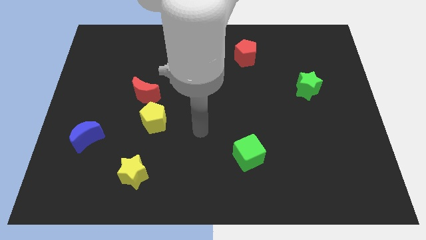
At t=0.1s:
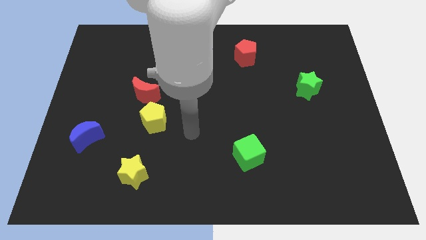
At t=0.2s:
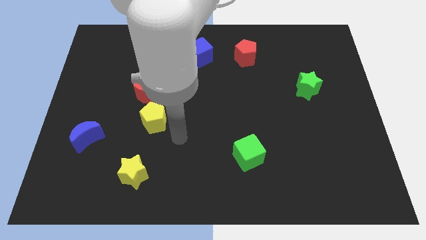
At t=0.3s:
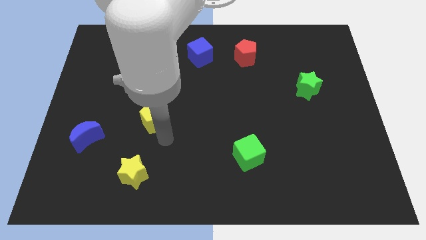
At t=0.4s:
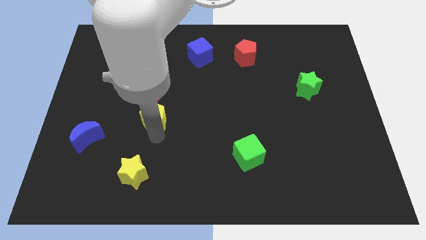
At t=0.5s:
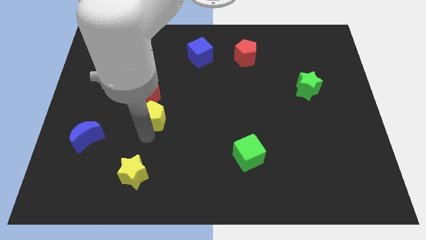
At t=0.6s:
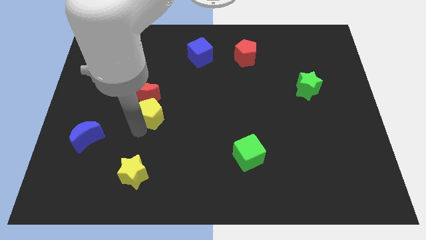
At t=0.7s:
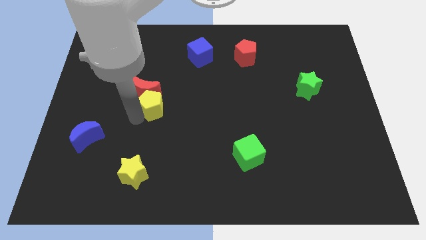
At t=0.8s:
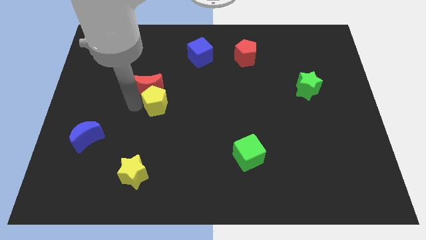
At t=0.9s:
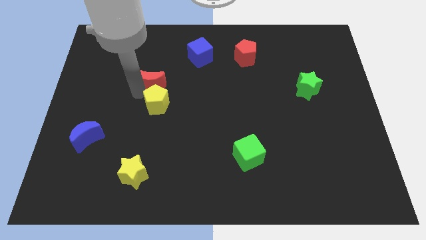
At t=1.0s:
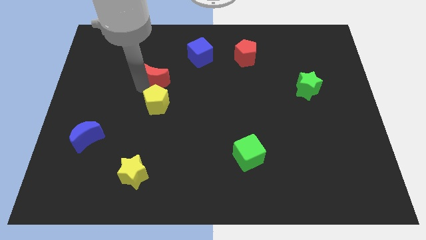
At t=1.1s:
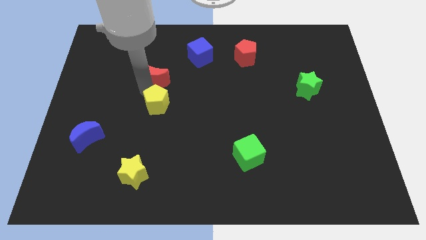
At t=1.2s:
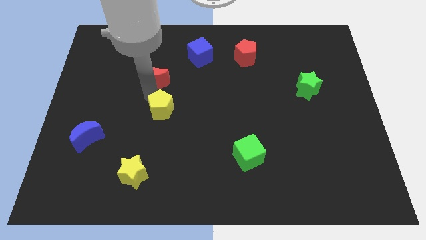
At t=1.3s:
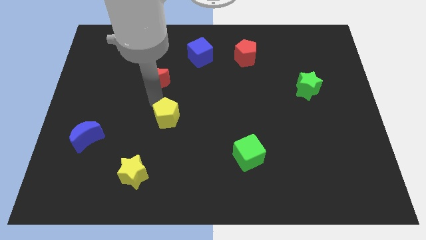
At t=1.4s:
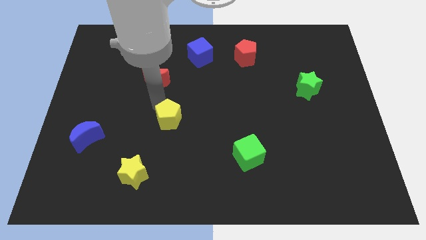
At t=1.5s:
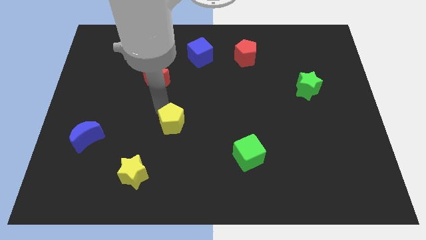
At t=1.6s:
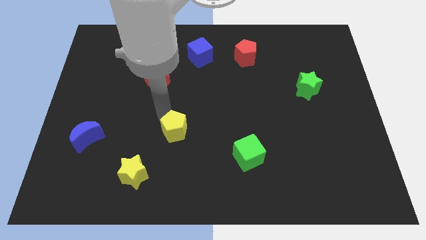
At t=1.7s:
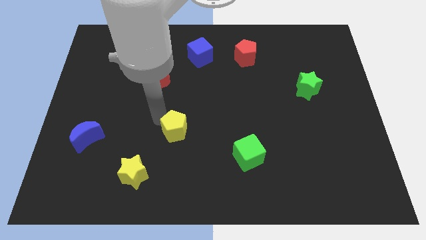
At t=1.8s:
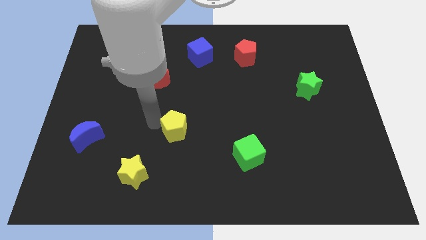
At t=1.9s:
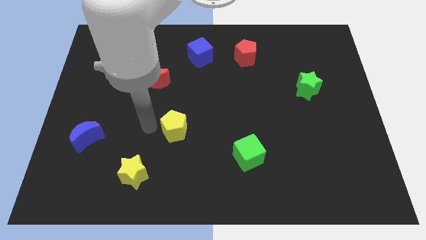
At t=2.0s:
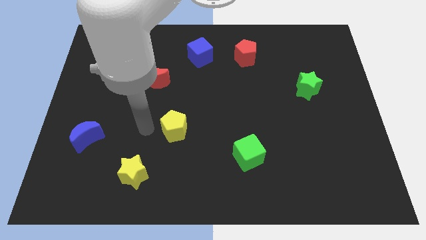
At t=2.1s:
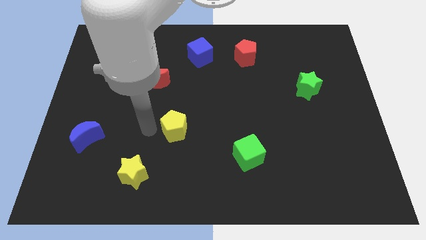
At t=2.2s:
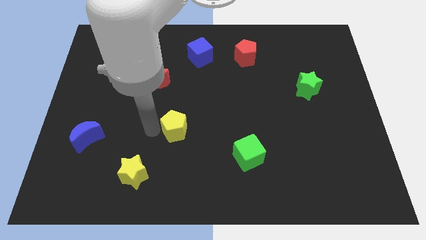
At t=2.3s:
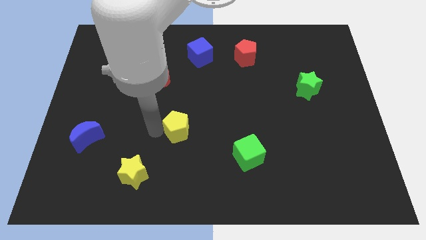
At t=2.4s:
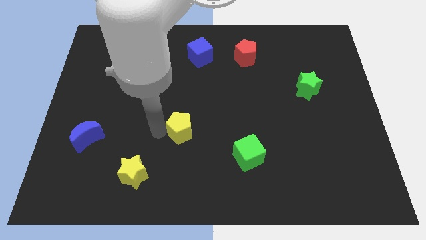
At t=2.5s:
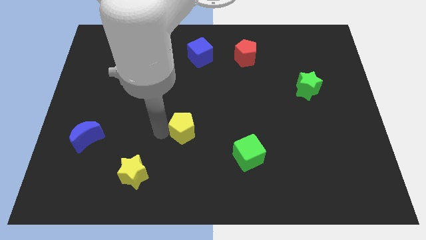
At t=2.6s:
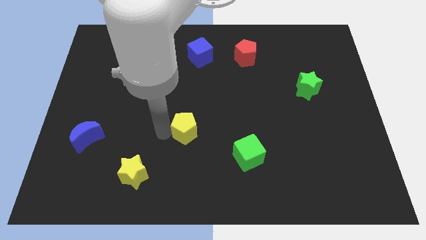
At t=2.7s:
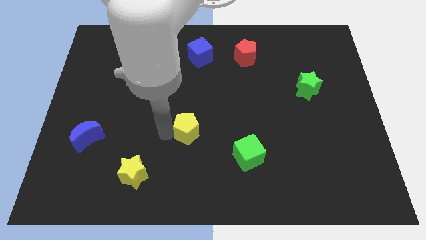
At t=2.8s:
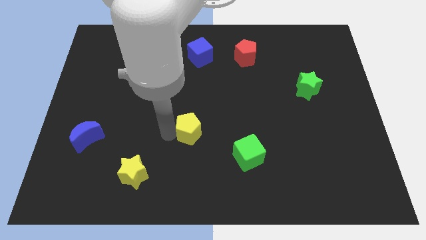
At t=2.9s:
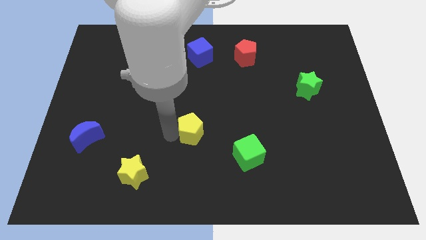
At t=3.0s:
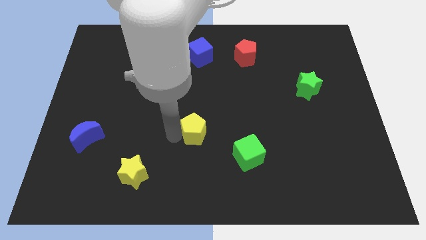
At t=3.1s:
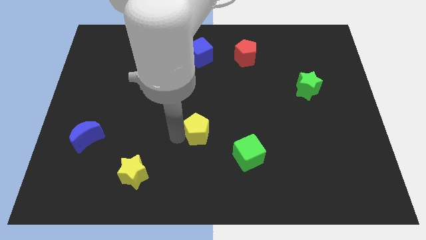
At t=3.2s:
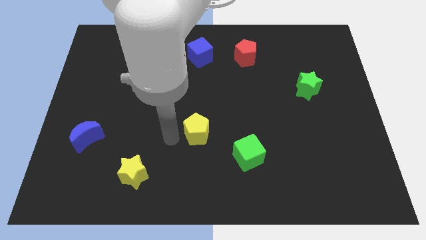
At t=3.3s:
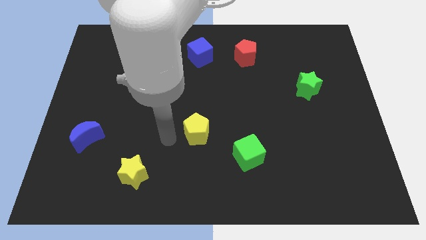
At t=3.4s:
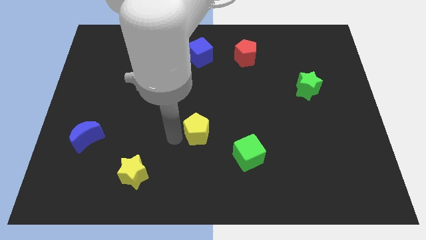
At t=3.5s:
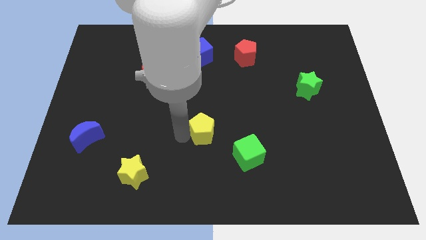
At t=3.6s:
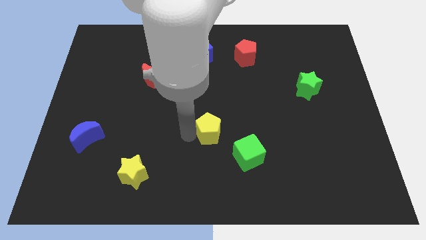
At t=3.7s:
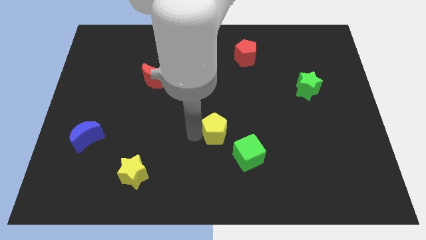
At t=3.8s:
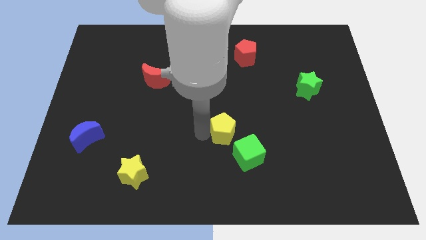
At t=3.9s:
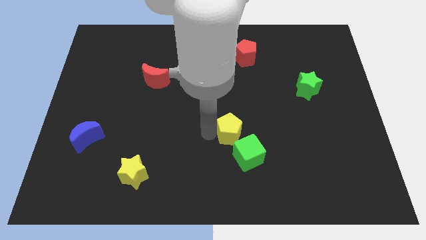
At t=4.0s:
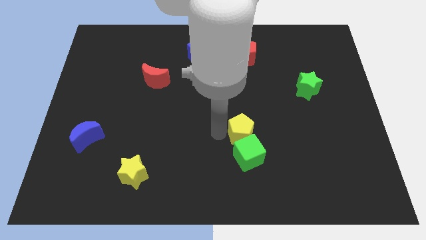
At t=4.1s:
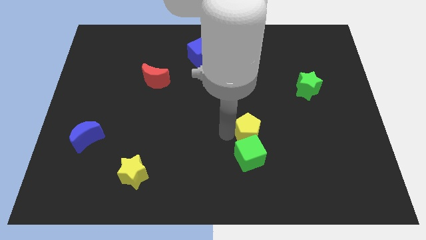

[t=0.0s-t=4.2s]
move the yellow pentagon to the right

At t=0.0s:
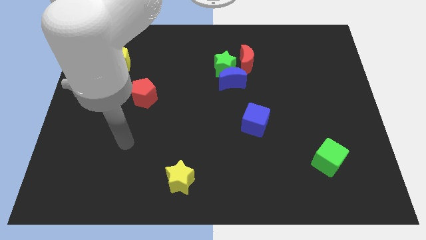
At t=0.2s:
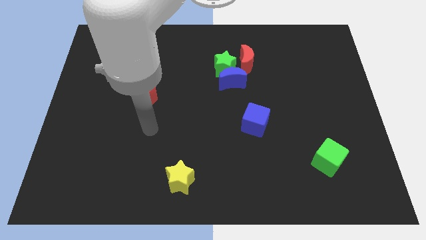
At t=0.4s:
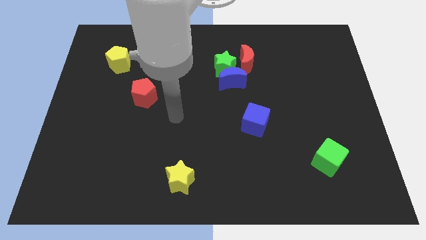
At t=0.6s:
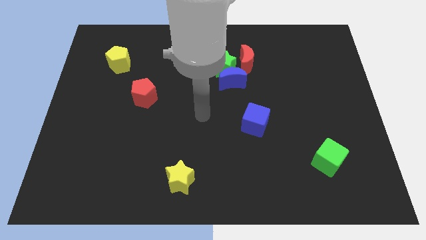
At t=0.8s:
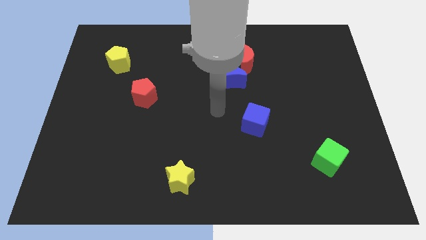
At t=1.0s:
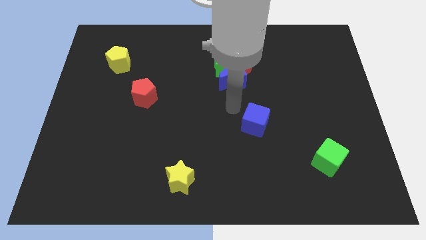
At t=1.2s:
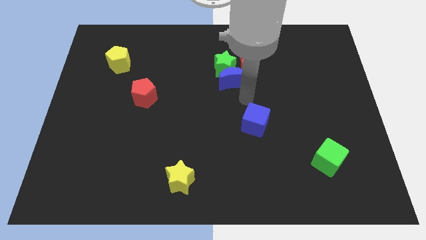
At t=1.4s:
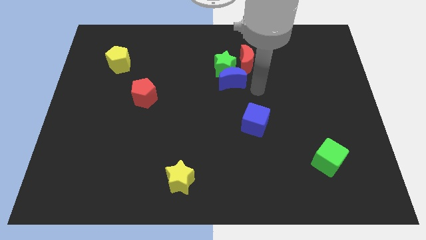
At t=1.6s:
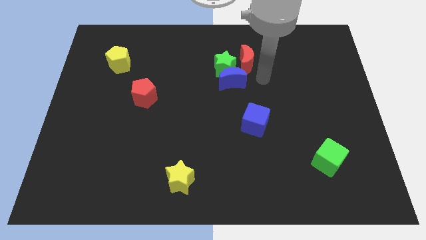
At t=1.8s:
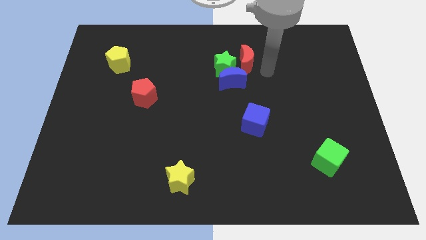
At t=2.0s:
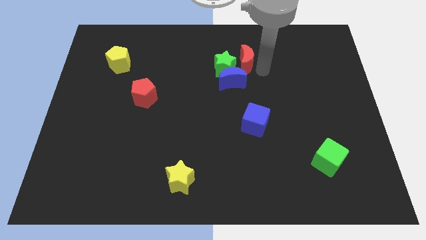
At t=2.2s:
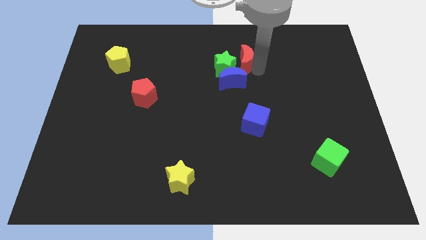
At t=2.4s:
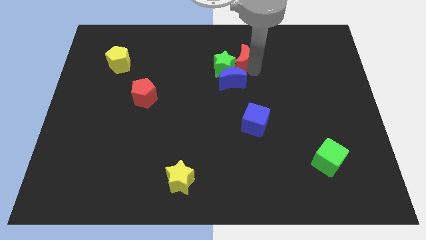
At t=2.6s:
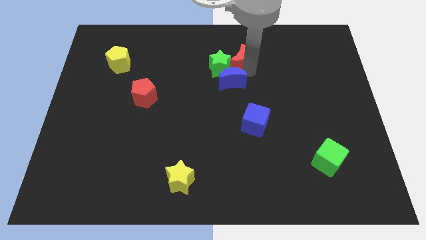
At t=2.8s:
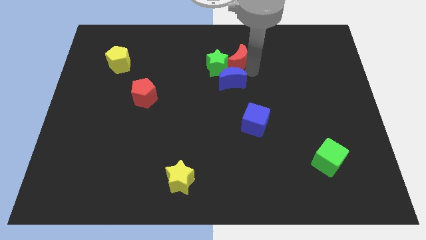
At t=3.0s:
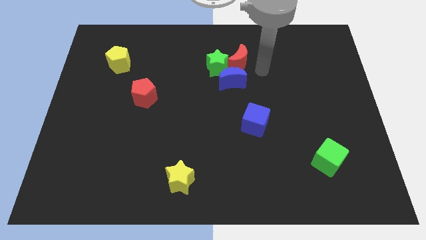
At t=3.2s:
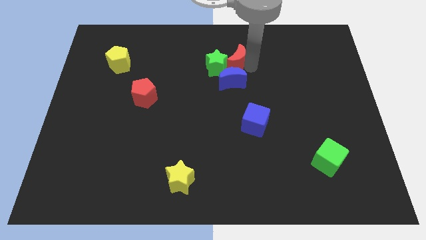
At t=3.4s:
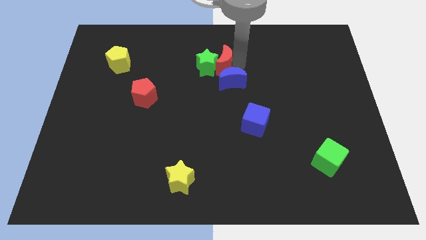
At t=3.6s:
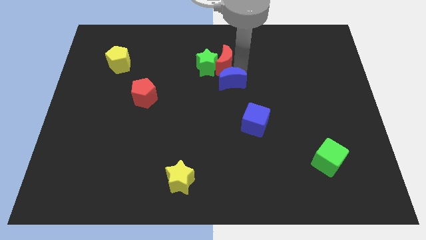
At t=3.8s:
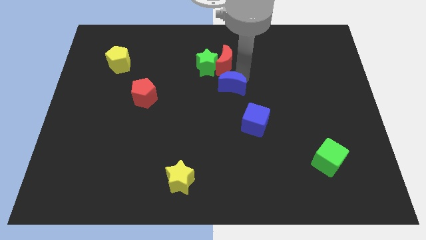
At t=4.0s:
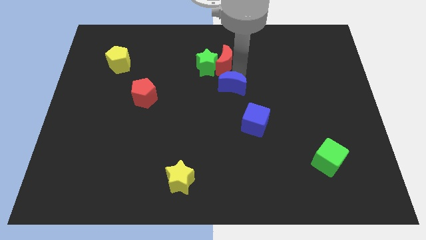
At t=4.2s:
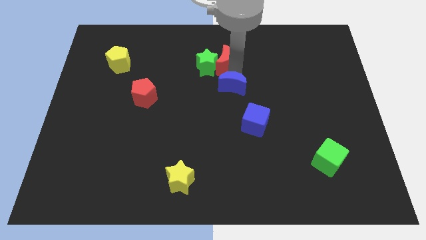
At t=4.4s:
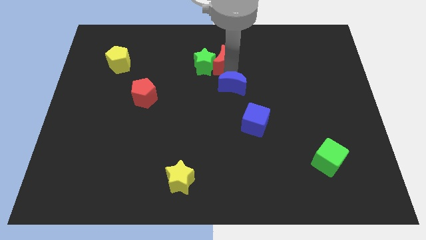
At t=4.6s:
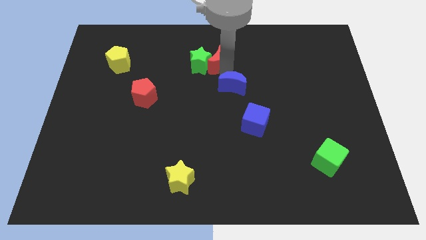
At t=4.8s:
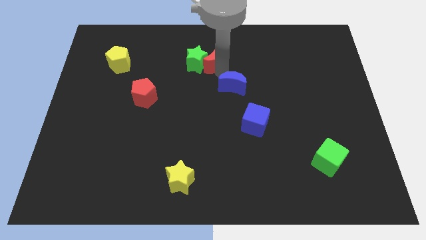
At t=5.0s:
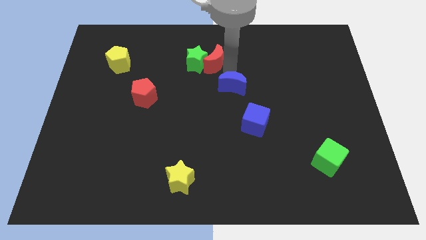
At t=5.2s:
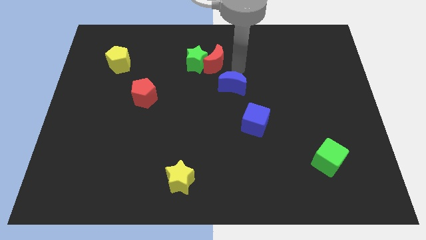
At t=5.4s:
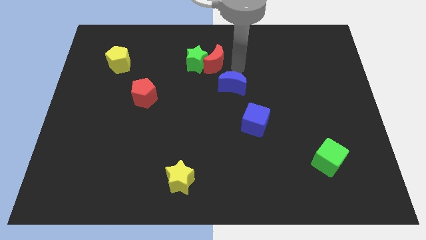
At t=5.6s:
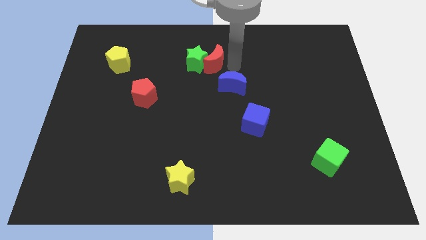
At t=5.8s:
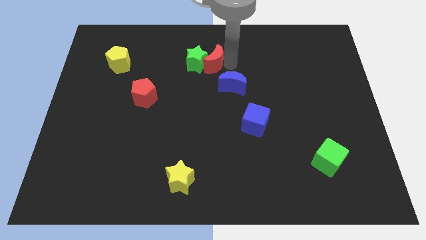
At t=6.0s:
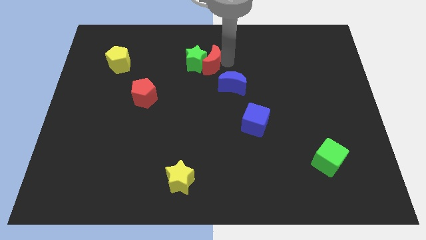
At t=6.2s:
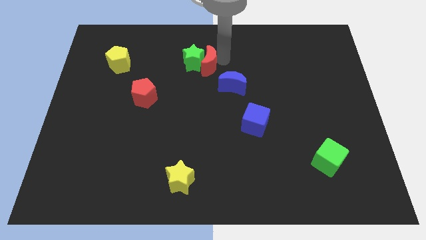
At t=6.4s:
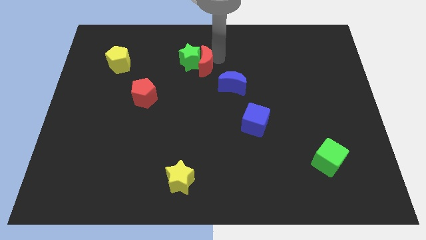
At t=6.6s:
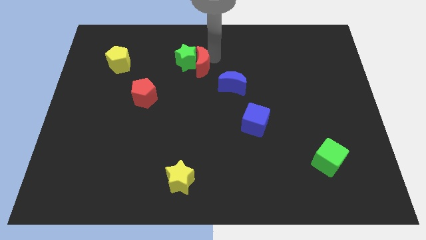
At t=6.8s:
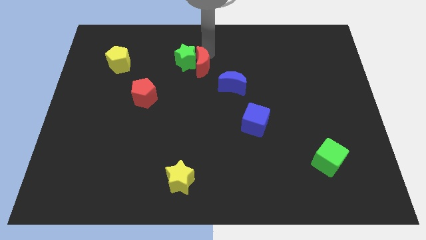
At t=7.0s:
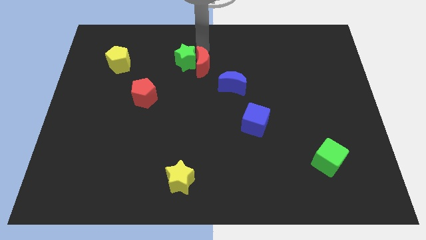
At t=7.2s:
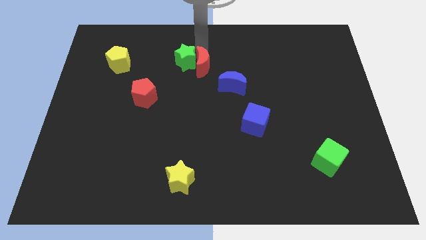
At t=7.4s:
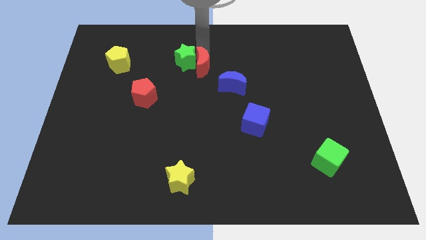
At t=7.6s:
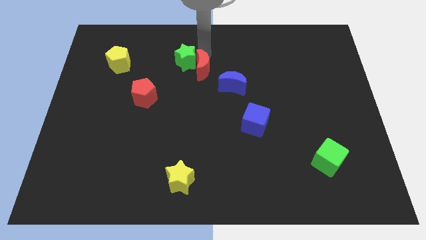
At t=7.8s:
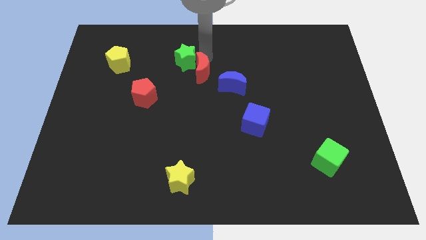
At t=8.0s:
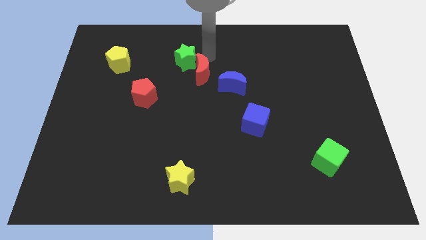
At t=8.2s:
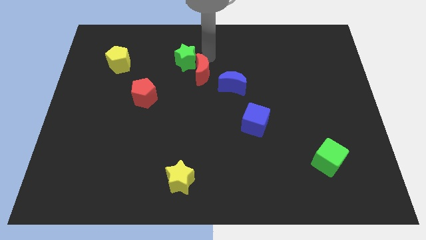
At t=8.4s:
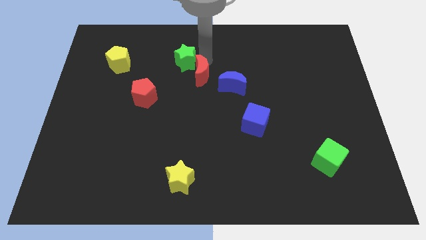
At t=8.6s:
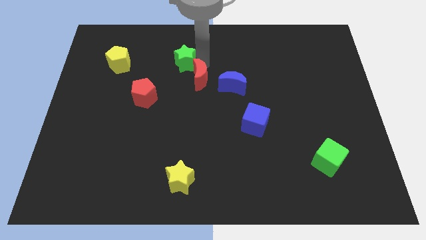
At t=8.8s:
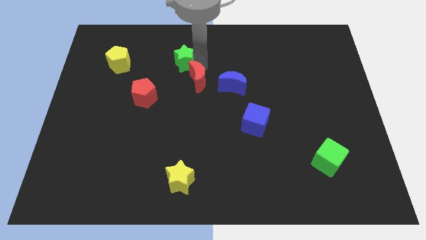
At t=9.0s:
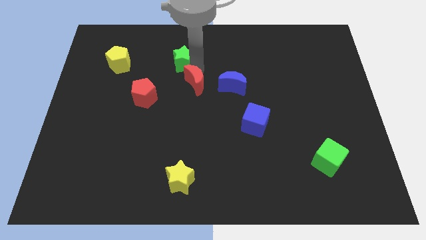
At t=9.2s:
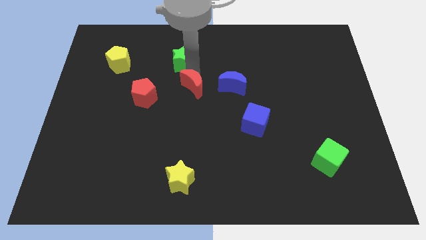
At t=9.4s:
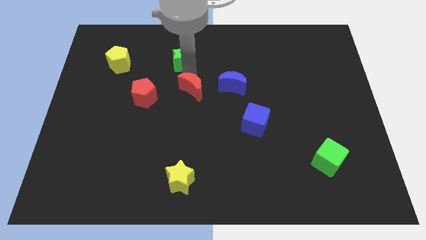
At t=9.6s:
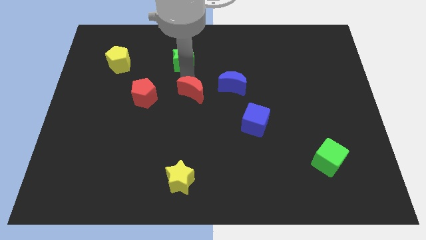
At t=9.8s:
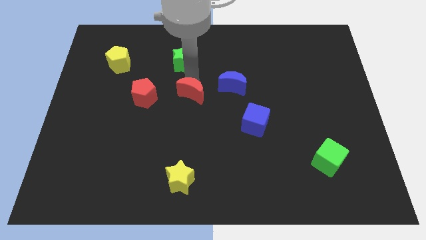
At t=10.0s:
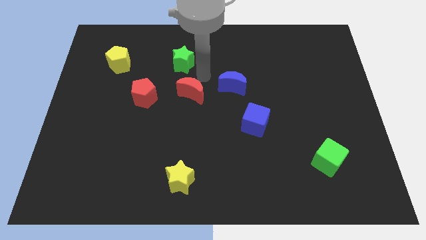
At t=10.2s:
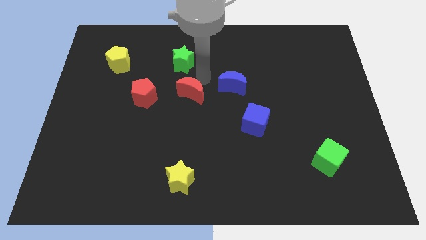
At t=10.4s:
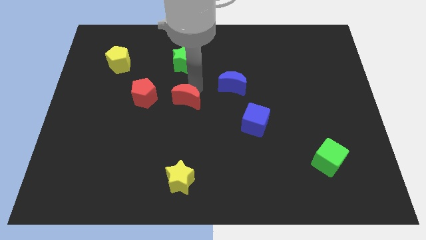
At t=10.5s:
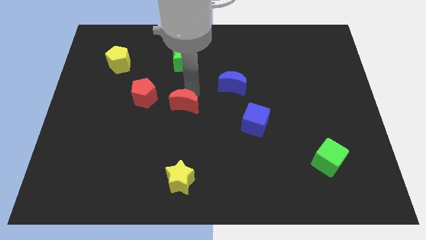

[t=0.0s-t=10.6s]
slide the red moon downwards and left
